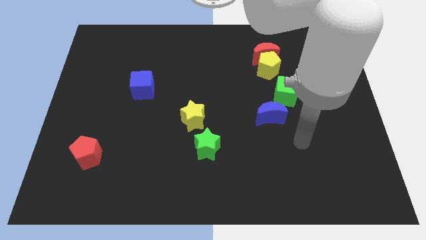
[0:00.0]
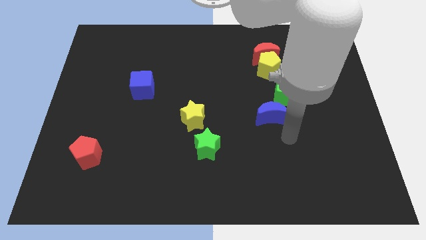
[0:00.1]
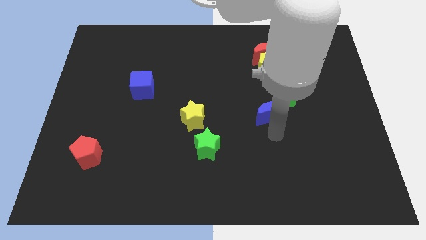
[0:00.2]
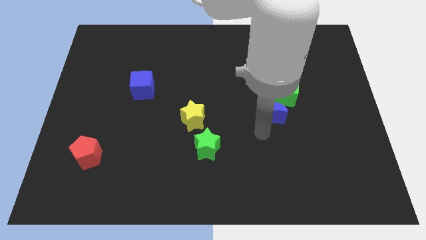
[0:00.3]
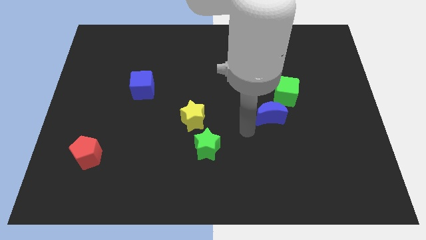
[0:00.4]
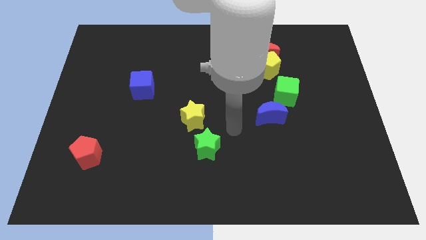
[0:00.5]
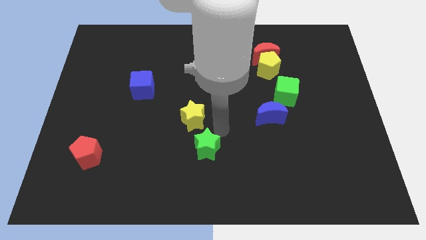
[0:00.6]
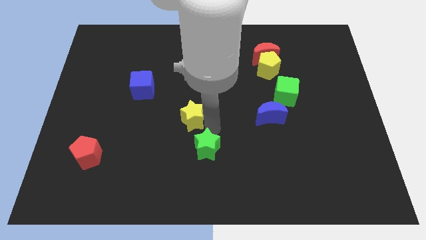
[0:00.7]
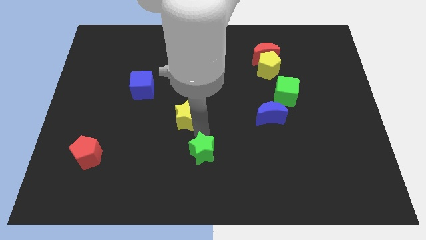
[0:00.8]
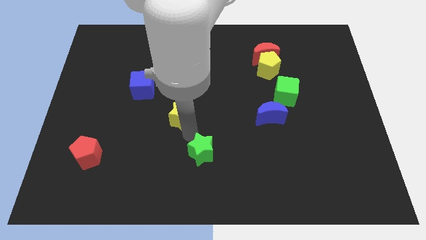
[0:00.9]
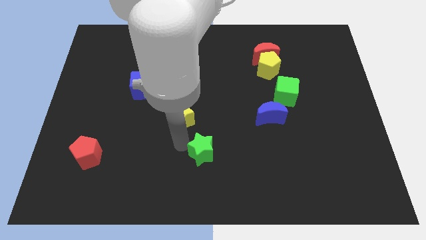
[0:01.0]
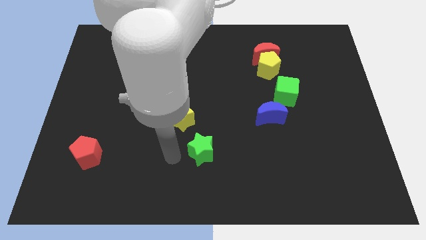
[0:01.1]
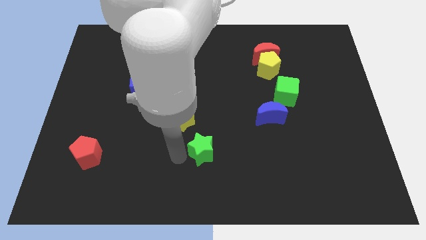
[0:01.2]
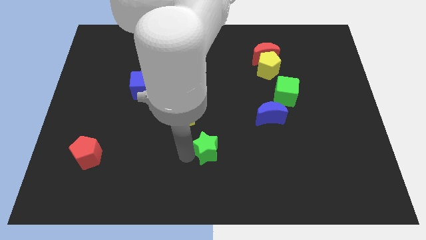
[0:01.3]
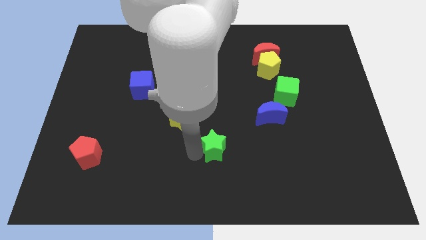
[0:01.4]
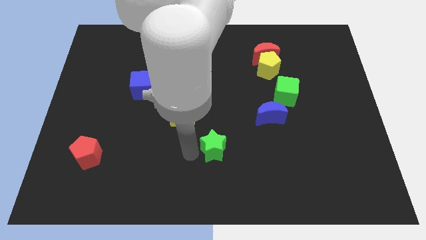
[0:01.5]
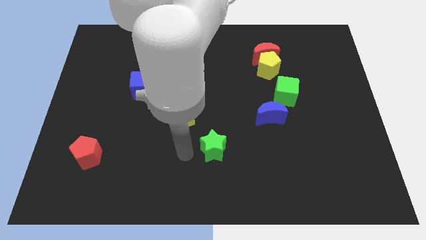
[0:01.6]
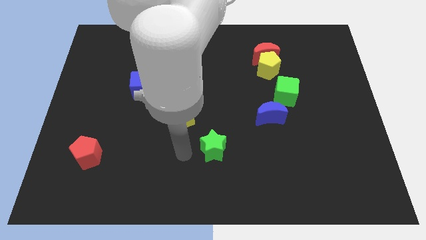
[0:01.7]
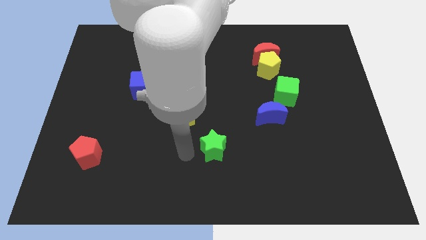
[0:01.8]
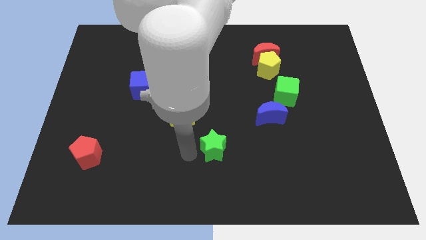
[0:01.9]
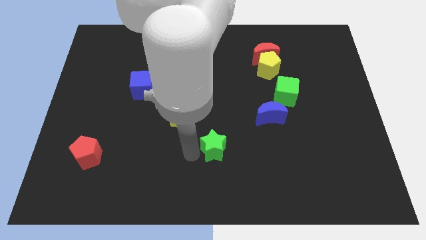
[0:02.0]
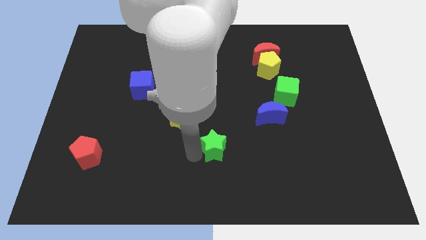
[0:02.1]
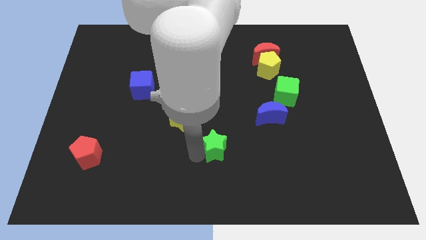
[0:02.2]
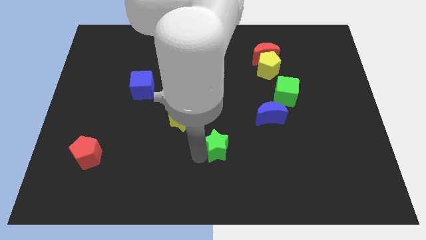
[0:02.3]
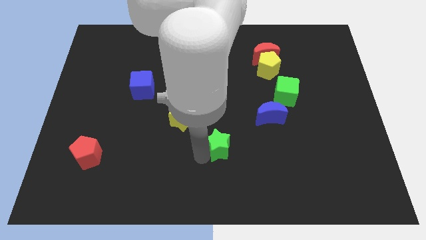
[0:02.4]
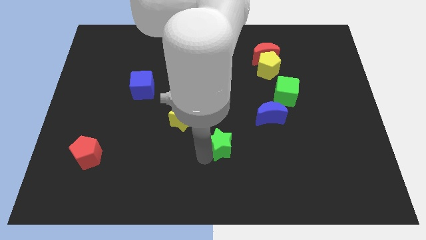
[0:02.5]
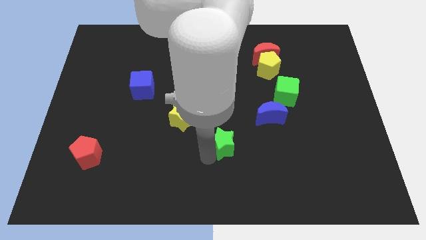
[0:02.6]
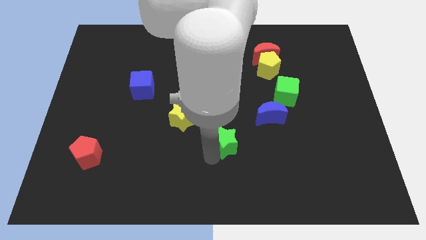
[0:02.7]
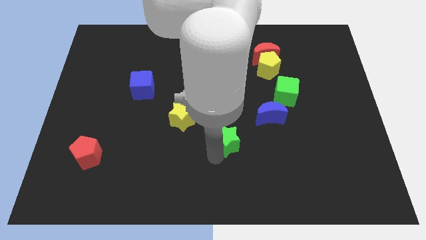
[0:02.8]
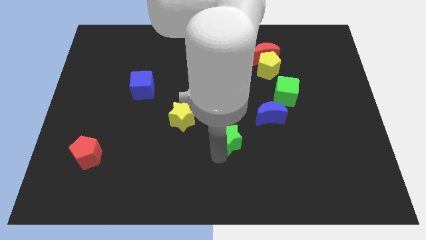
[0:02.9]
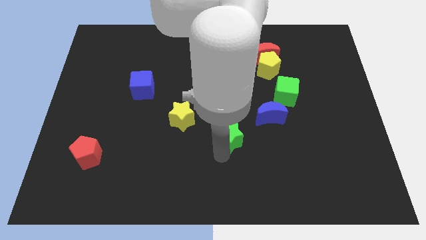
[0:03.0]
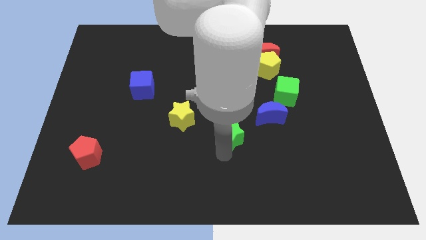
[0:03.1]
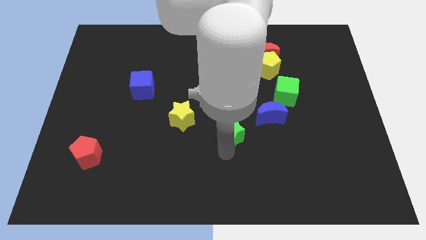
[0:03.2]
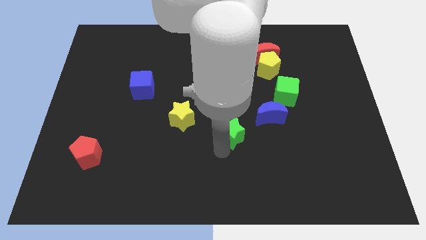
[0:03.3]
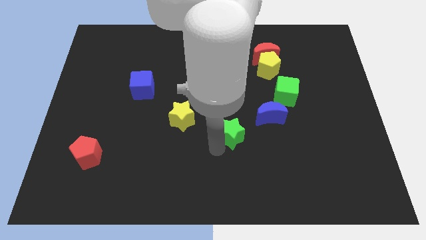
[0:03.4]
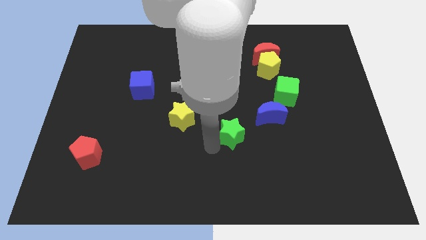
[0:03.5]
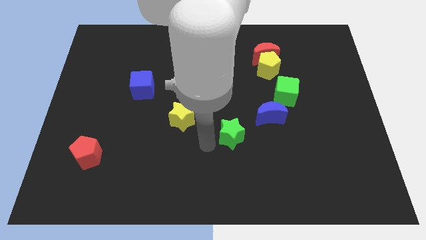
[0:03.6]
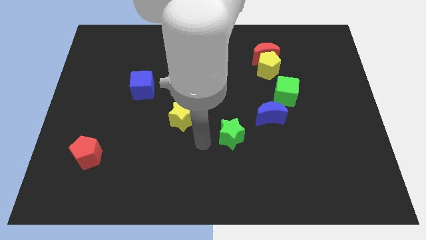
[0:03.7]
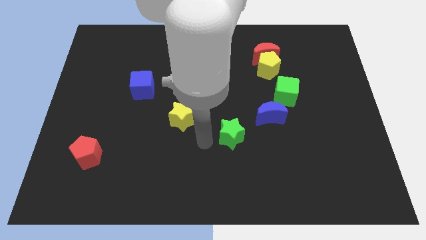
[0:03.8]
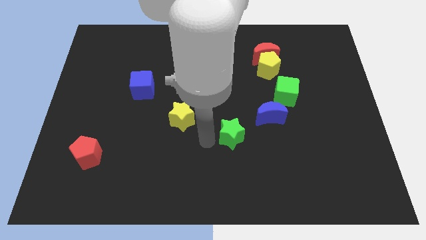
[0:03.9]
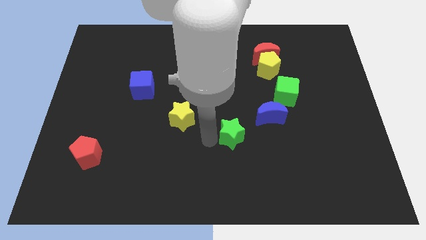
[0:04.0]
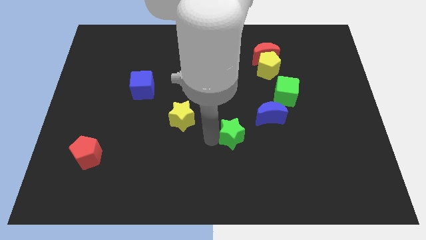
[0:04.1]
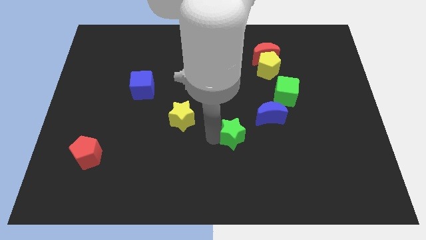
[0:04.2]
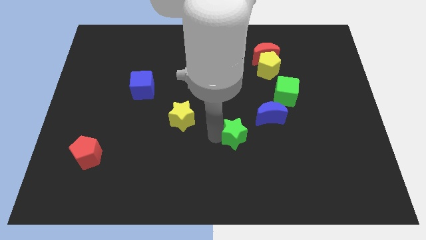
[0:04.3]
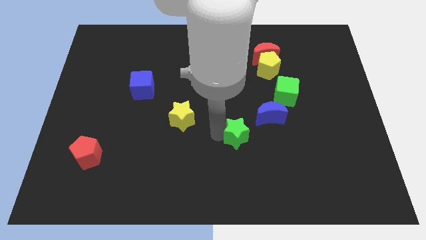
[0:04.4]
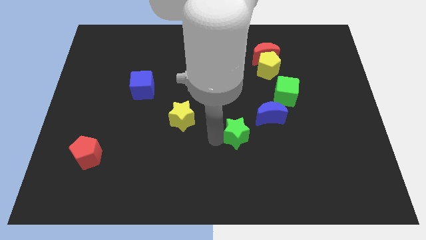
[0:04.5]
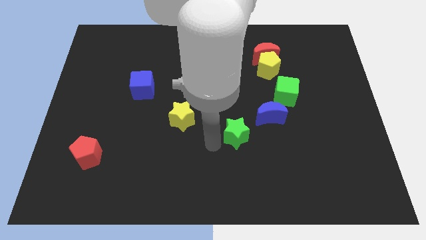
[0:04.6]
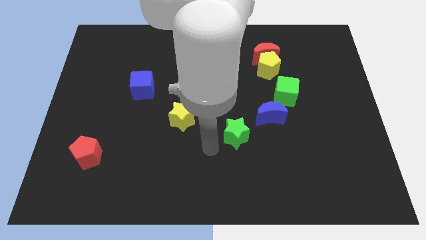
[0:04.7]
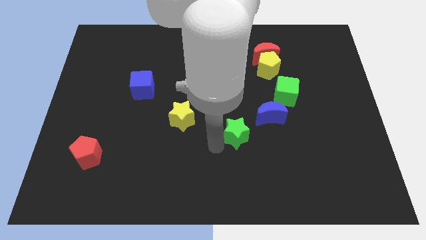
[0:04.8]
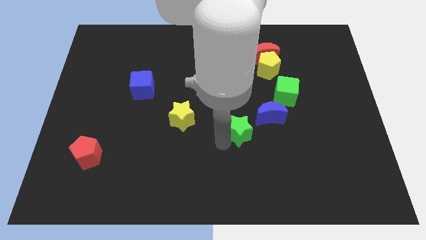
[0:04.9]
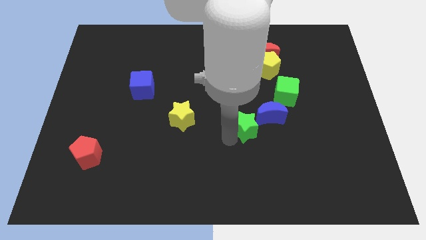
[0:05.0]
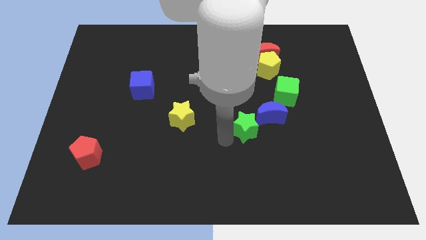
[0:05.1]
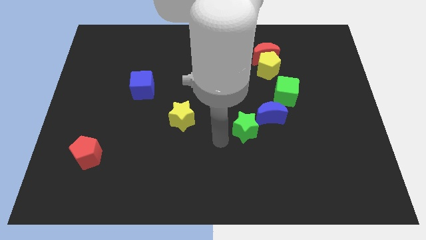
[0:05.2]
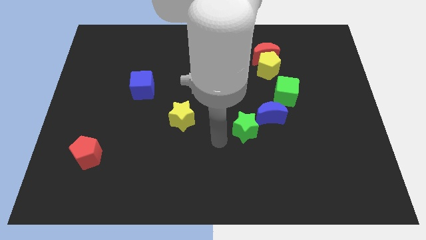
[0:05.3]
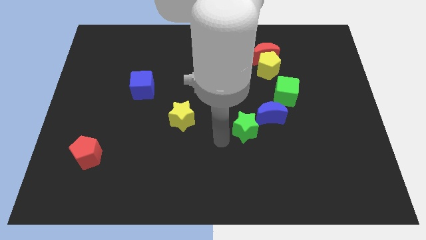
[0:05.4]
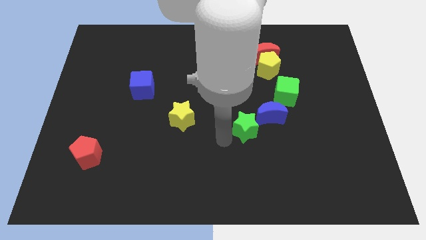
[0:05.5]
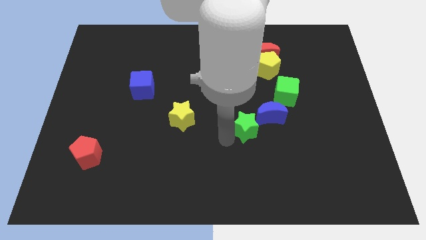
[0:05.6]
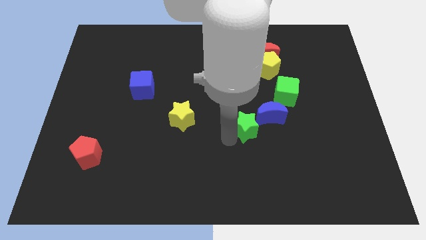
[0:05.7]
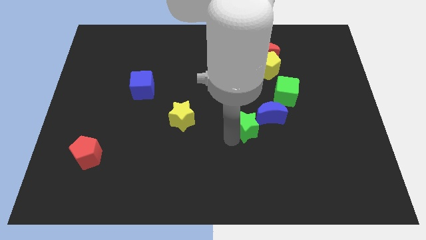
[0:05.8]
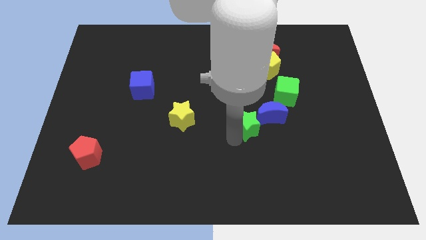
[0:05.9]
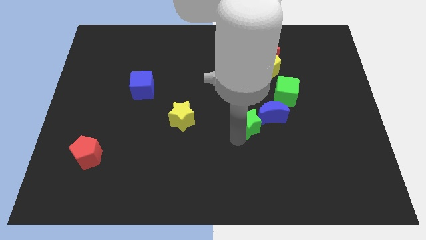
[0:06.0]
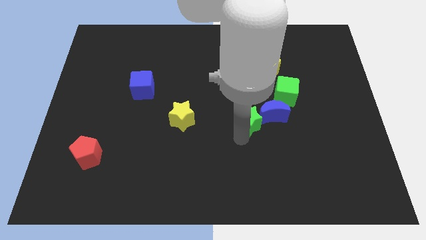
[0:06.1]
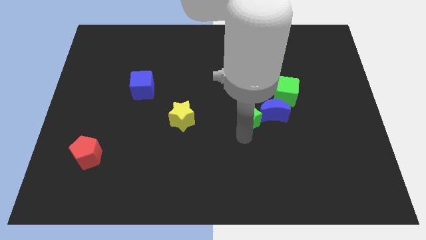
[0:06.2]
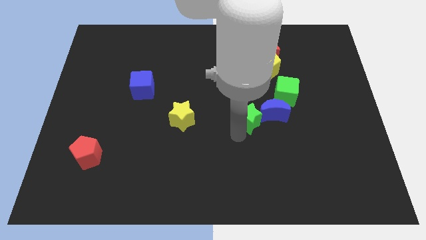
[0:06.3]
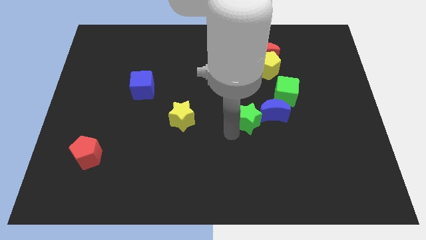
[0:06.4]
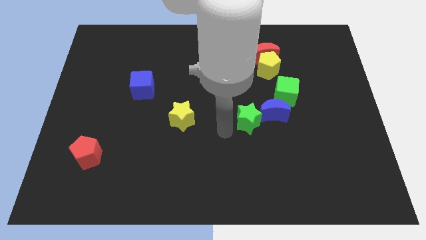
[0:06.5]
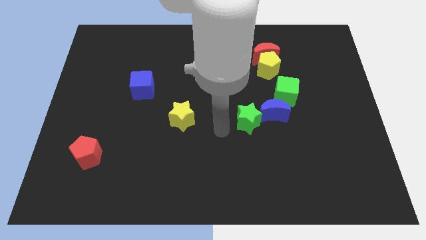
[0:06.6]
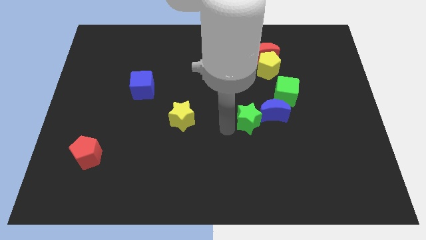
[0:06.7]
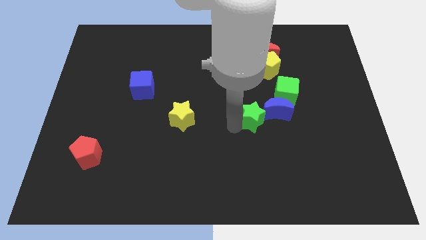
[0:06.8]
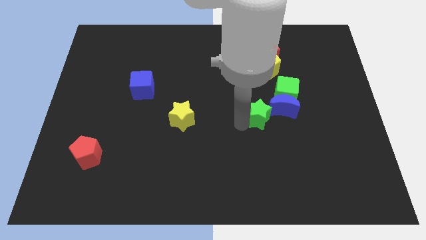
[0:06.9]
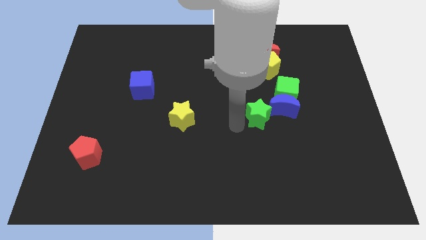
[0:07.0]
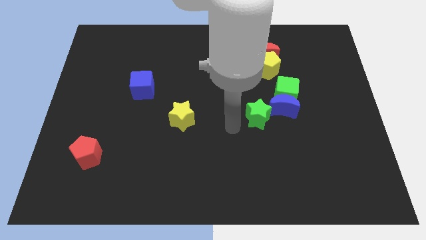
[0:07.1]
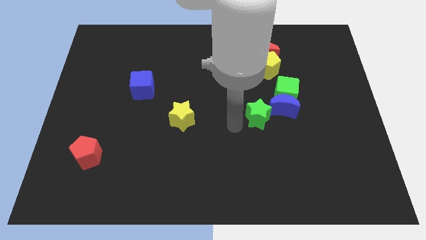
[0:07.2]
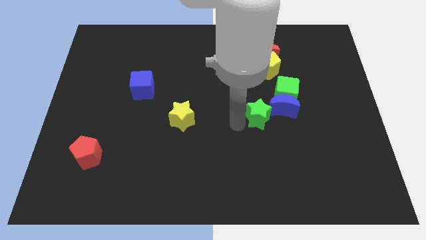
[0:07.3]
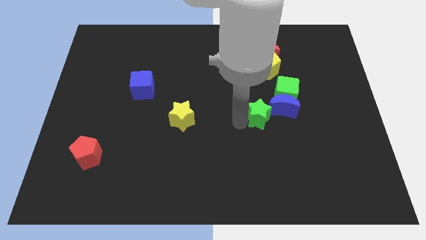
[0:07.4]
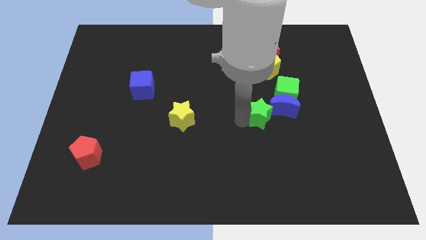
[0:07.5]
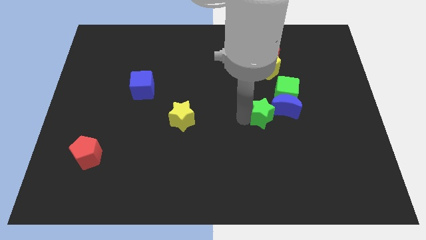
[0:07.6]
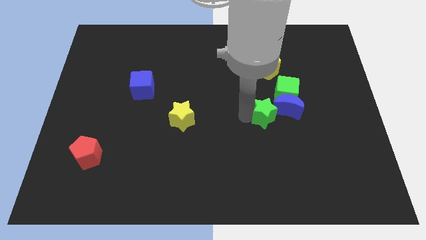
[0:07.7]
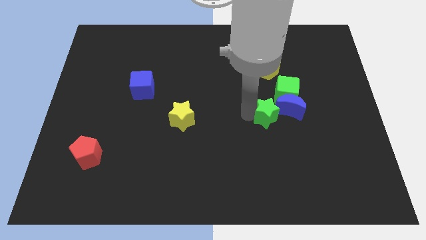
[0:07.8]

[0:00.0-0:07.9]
push the green star next to the blue moon

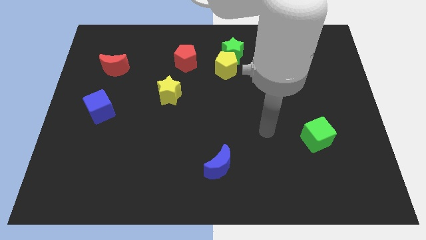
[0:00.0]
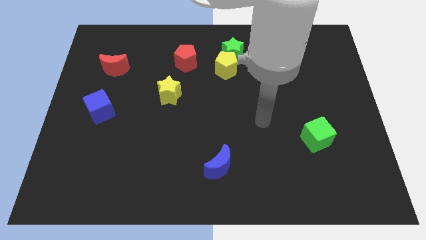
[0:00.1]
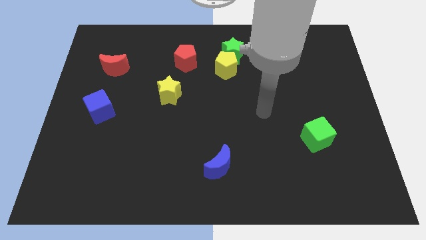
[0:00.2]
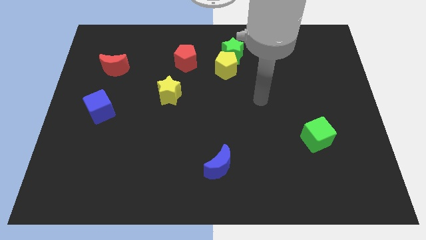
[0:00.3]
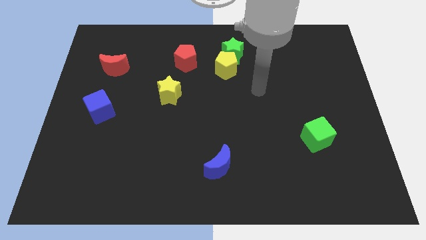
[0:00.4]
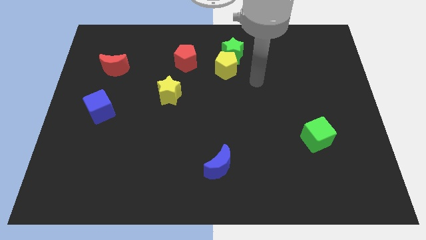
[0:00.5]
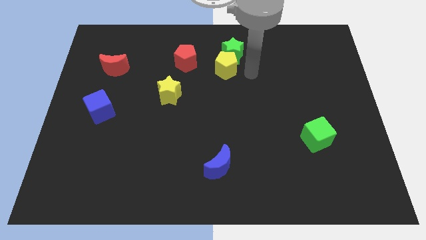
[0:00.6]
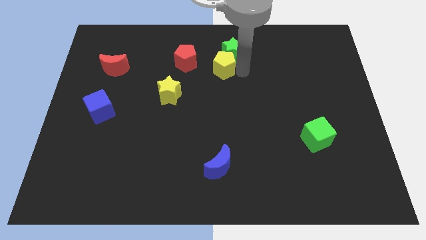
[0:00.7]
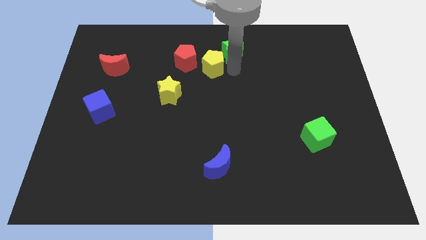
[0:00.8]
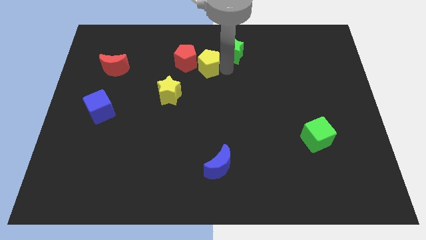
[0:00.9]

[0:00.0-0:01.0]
push the yellow pentagon close to the red pentagon
